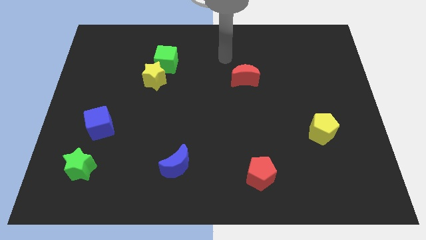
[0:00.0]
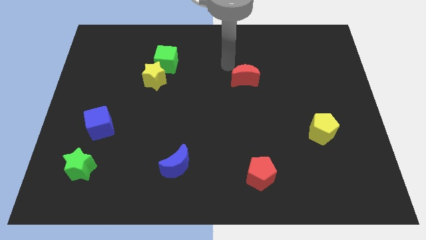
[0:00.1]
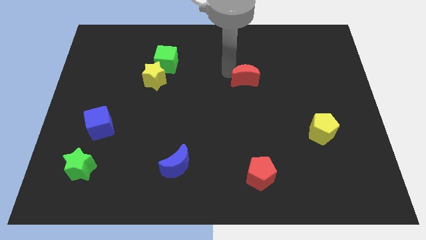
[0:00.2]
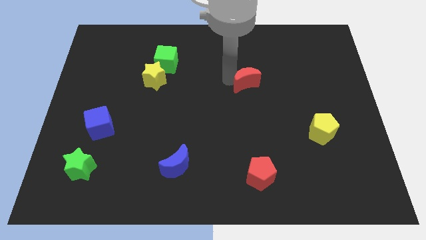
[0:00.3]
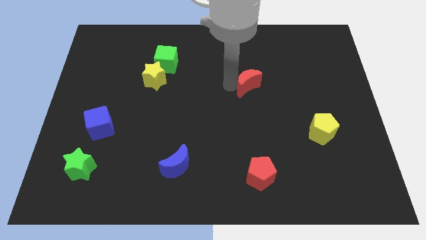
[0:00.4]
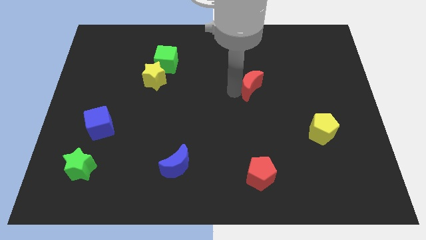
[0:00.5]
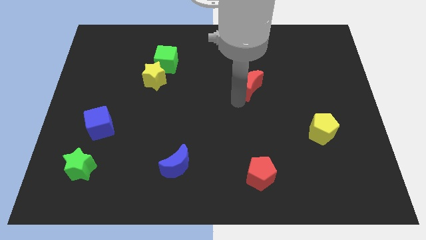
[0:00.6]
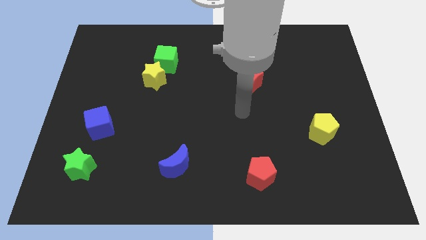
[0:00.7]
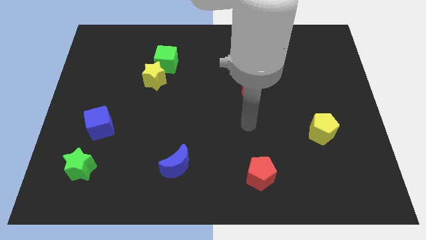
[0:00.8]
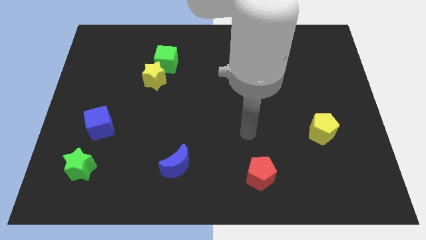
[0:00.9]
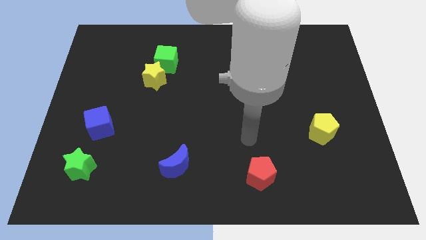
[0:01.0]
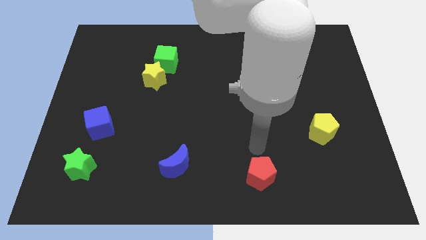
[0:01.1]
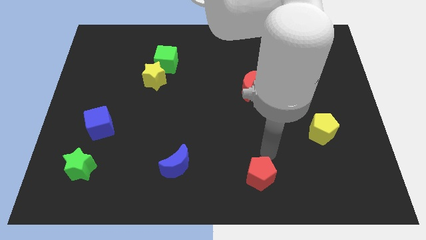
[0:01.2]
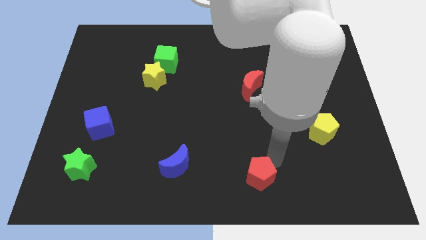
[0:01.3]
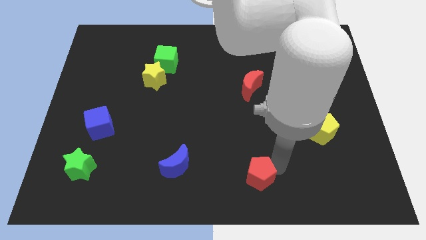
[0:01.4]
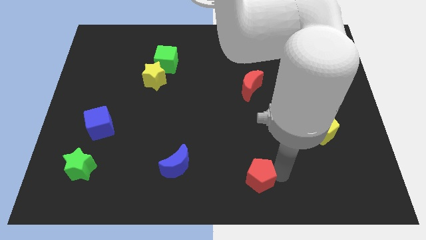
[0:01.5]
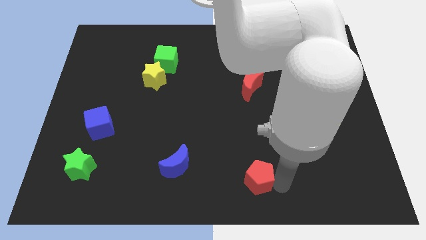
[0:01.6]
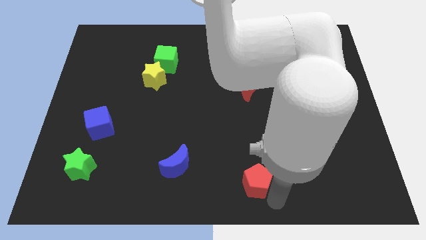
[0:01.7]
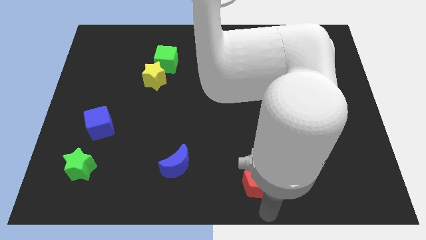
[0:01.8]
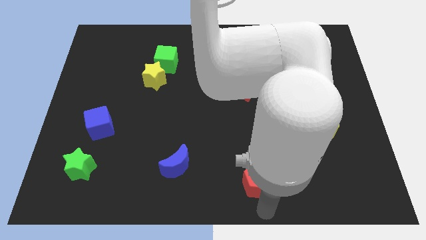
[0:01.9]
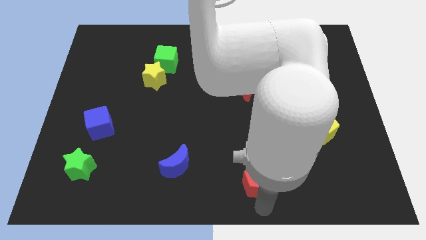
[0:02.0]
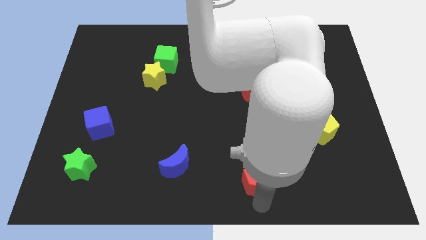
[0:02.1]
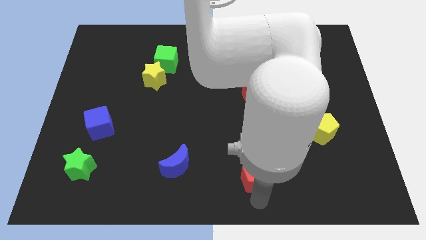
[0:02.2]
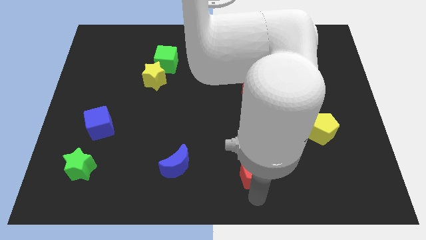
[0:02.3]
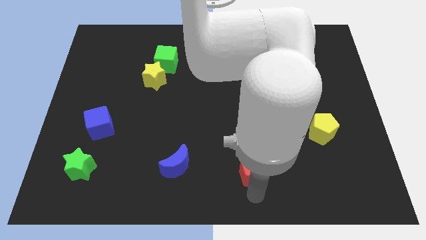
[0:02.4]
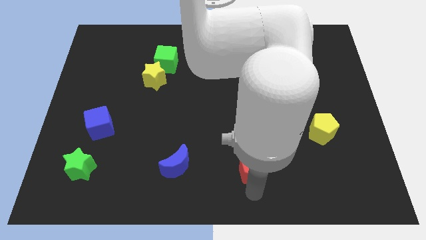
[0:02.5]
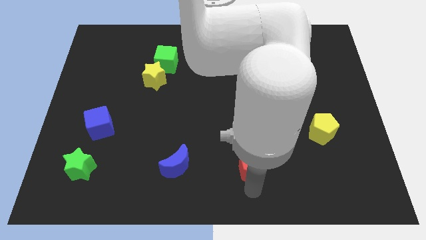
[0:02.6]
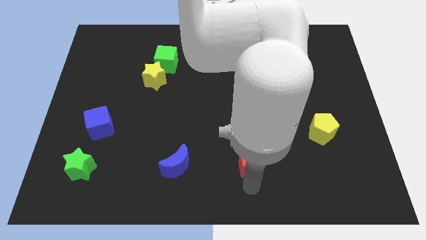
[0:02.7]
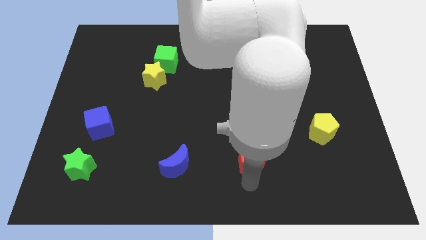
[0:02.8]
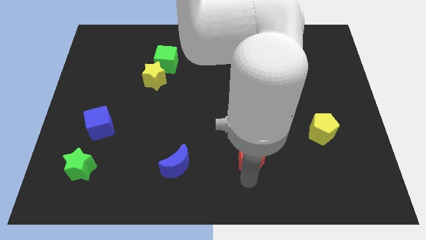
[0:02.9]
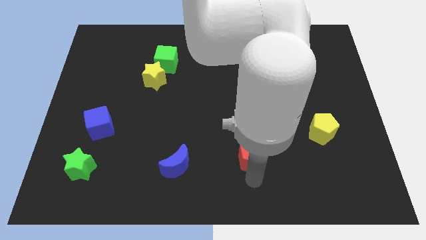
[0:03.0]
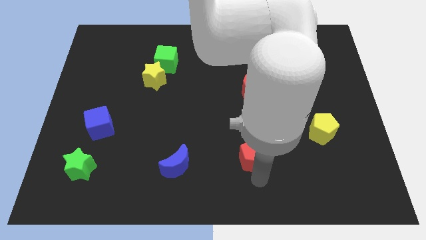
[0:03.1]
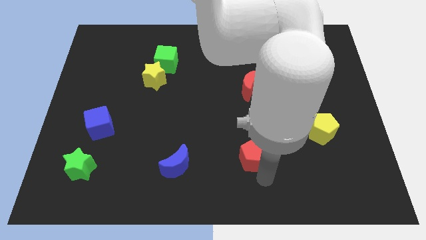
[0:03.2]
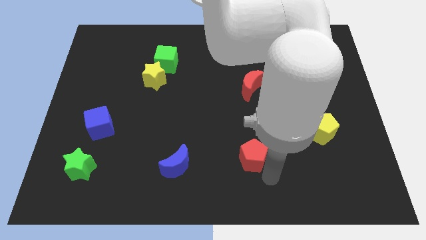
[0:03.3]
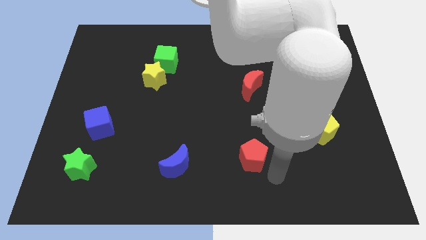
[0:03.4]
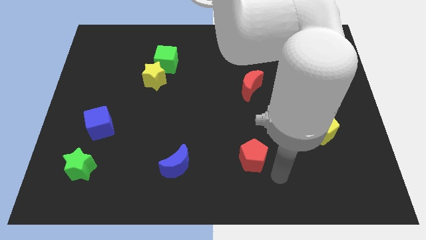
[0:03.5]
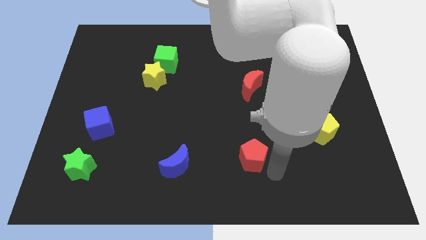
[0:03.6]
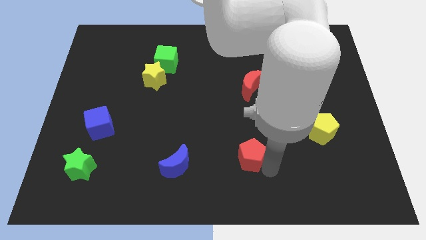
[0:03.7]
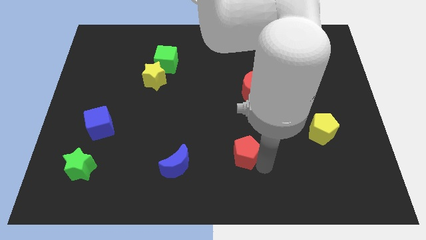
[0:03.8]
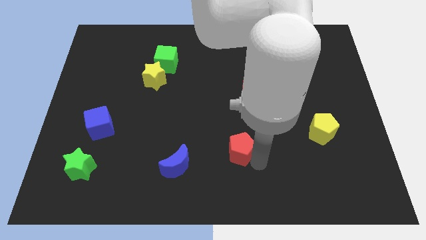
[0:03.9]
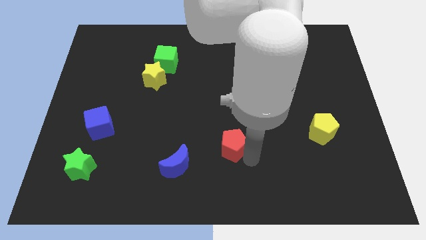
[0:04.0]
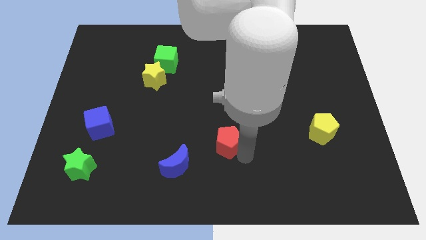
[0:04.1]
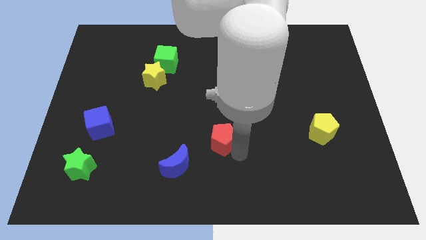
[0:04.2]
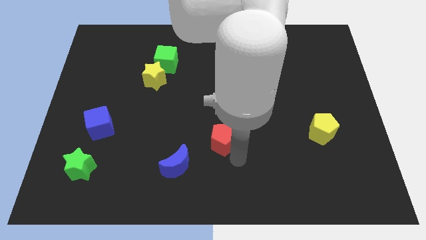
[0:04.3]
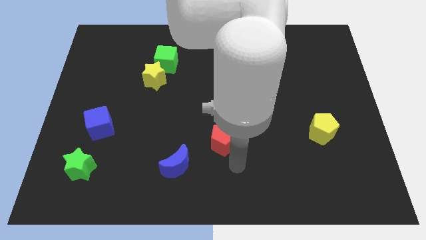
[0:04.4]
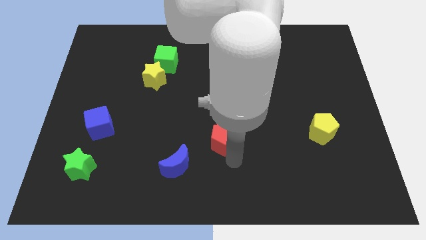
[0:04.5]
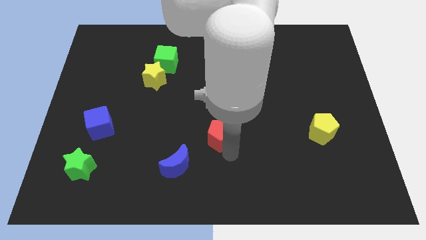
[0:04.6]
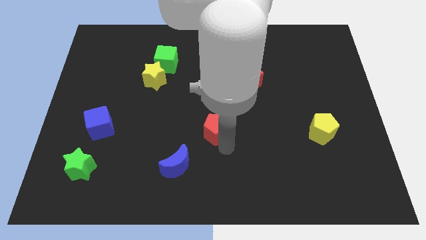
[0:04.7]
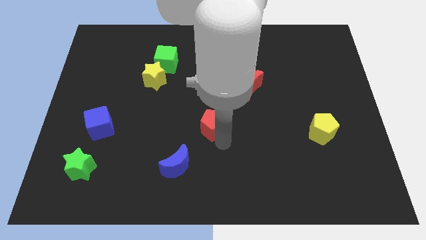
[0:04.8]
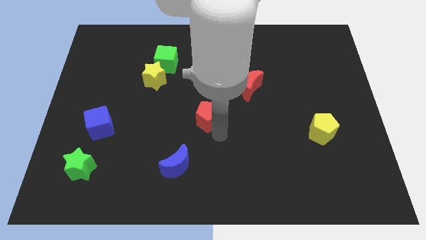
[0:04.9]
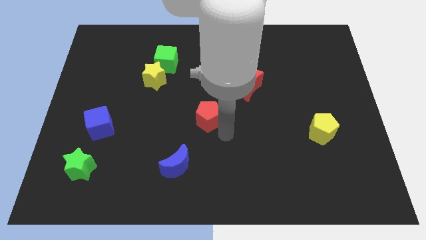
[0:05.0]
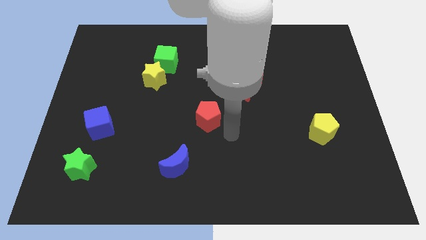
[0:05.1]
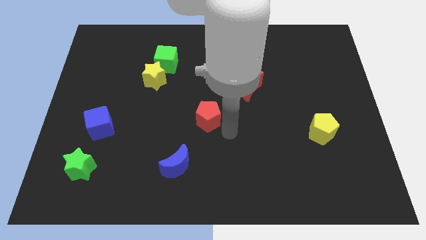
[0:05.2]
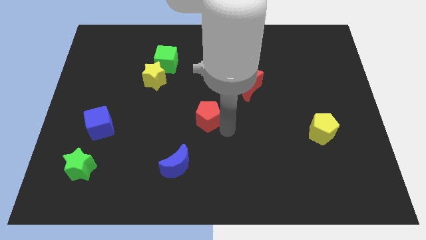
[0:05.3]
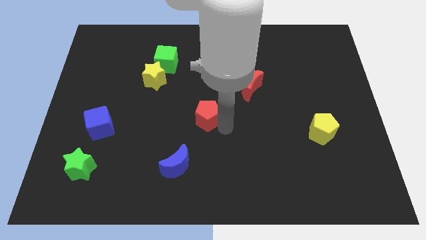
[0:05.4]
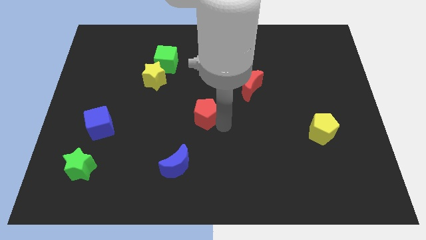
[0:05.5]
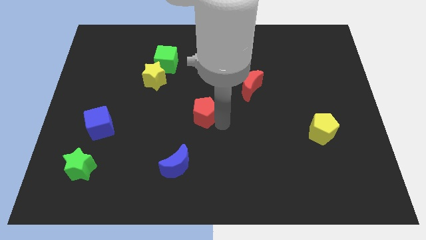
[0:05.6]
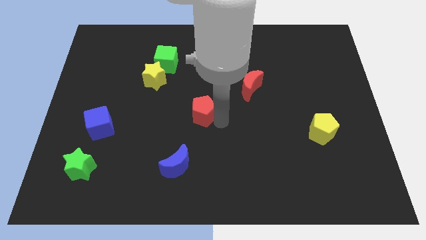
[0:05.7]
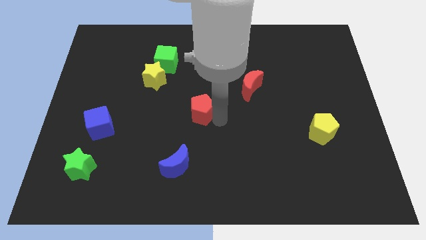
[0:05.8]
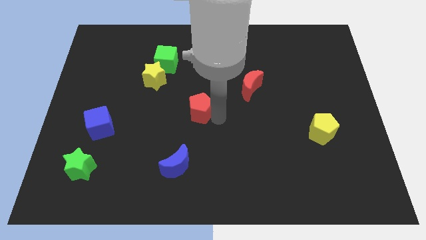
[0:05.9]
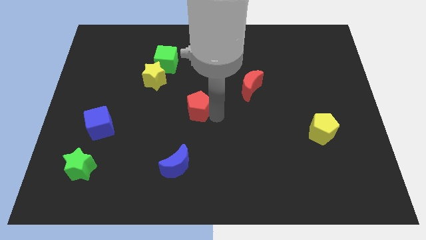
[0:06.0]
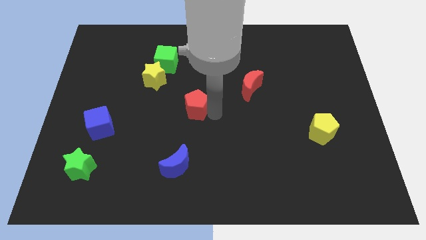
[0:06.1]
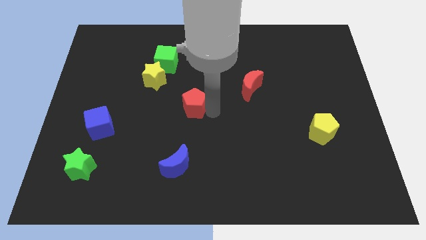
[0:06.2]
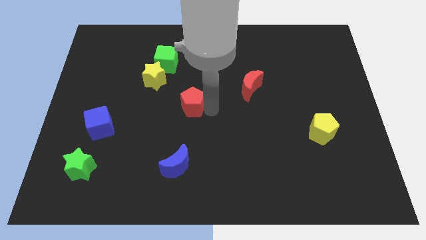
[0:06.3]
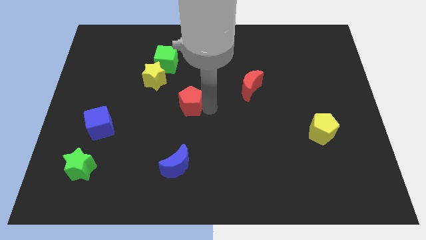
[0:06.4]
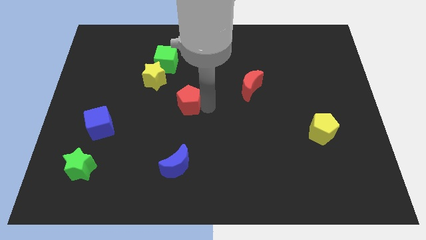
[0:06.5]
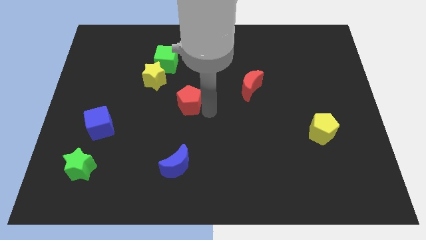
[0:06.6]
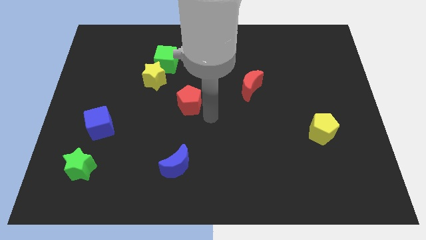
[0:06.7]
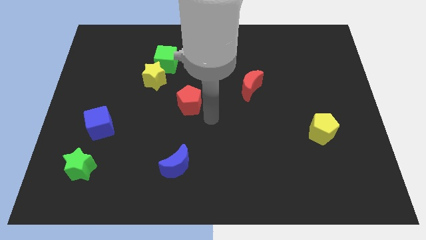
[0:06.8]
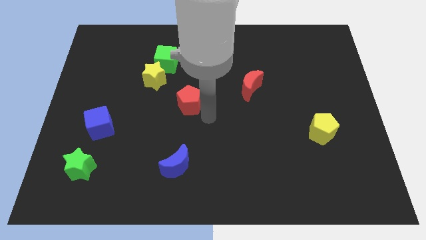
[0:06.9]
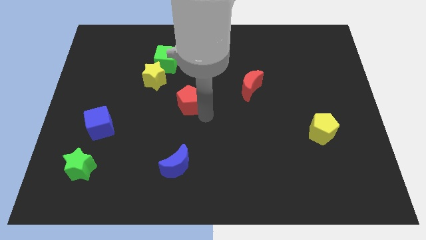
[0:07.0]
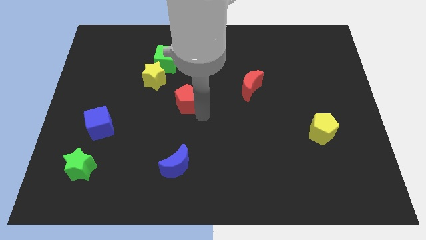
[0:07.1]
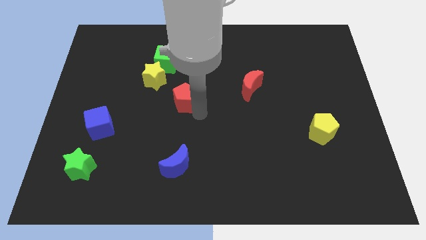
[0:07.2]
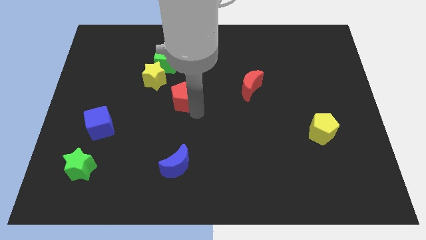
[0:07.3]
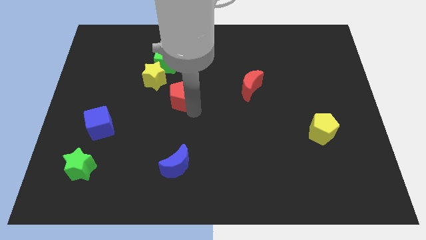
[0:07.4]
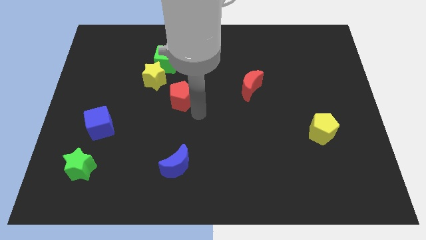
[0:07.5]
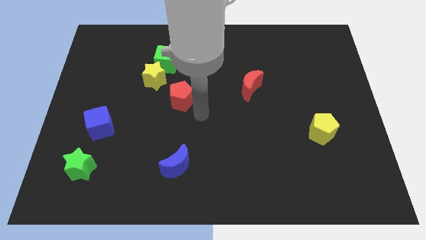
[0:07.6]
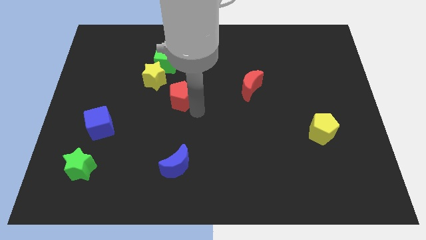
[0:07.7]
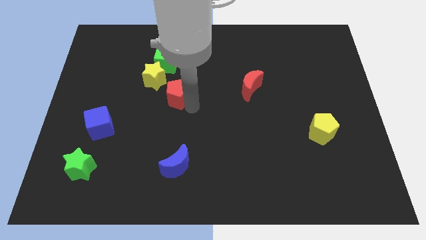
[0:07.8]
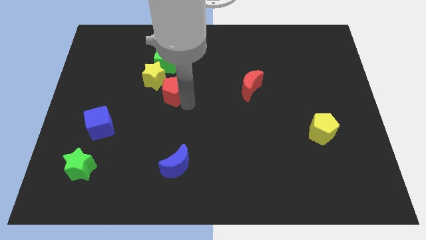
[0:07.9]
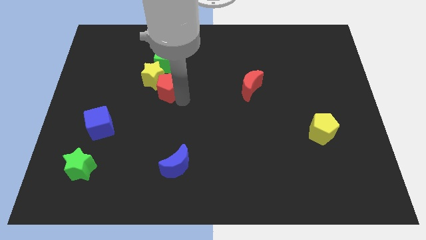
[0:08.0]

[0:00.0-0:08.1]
push the red pentagon to the yellow star
